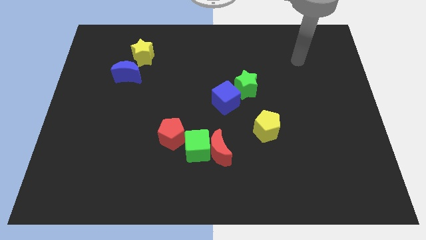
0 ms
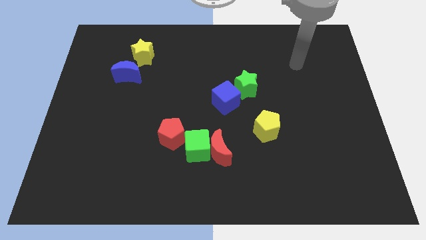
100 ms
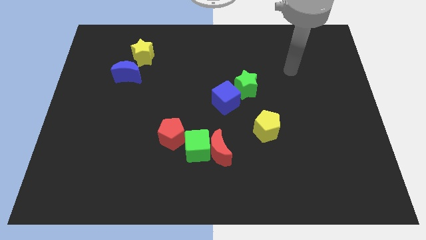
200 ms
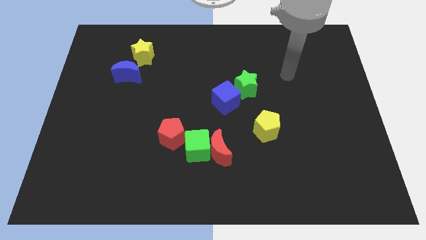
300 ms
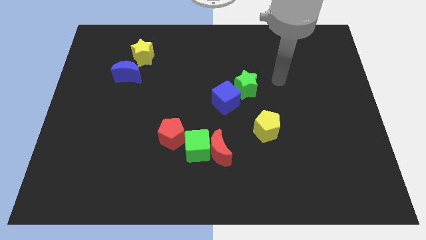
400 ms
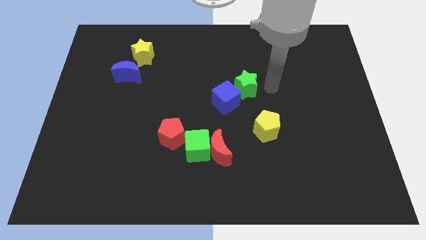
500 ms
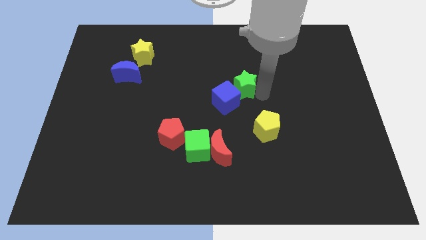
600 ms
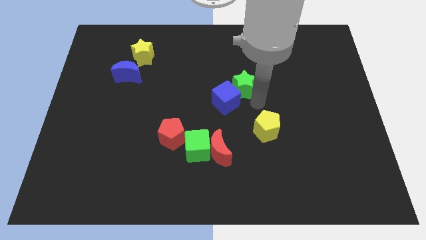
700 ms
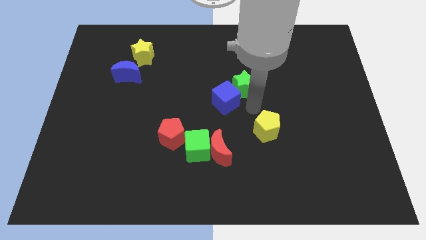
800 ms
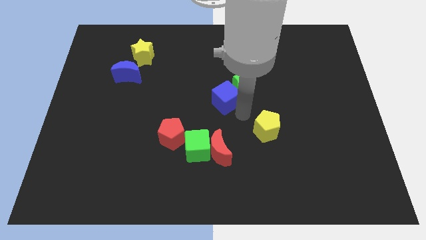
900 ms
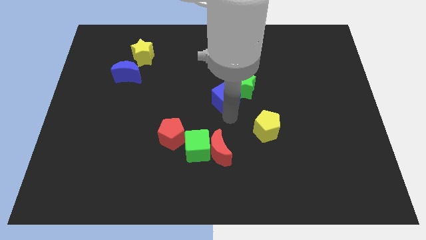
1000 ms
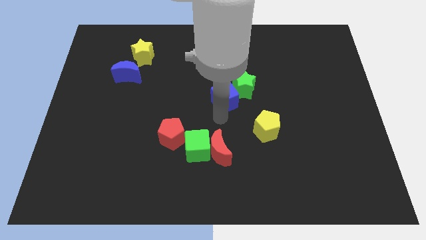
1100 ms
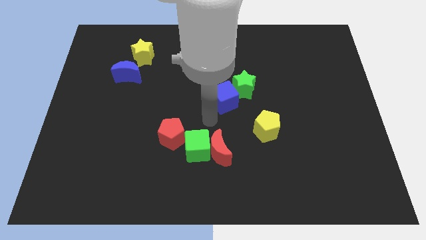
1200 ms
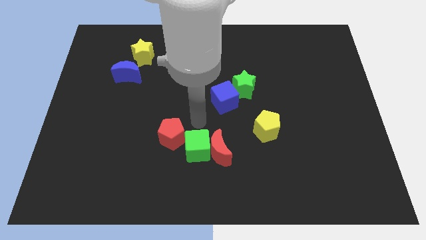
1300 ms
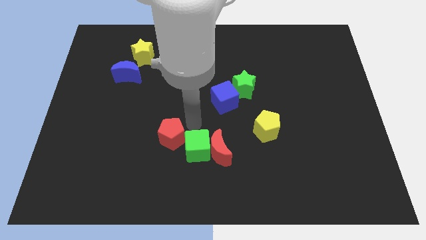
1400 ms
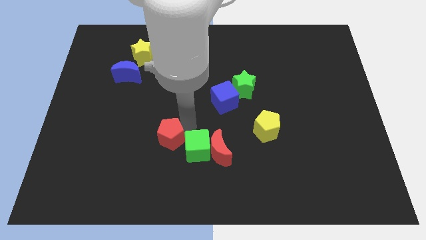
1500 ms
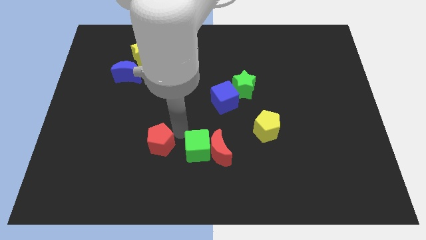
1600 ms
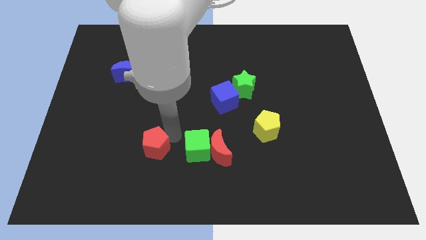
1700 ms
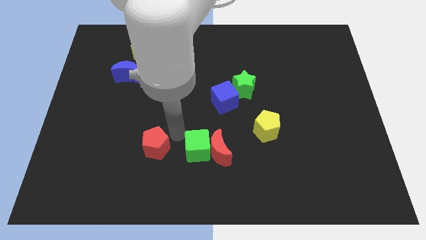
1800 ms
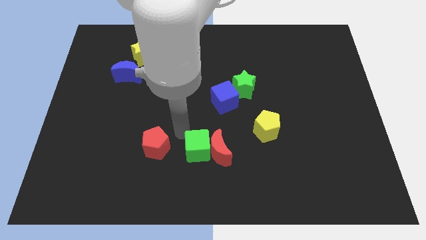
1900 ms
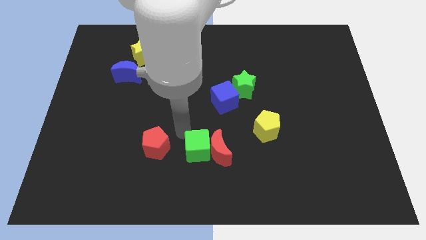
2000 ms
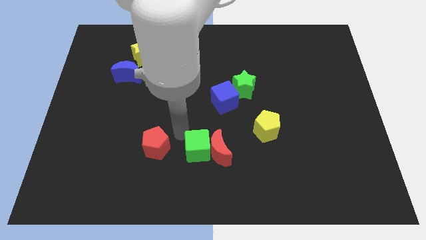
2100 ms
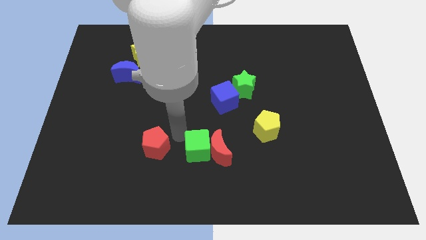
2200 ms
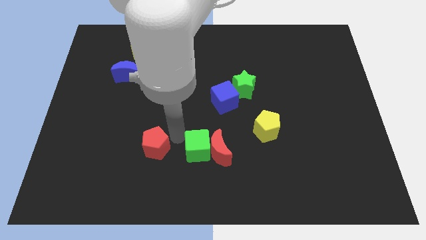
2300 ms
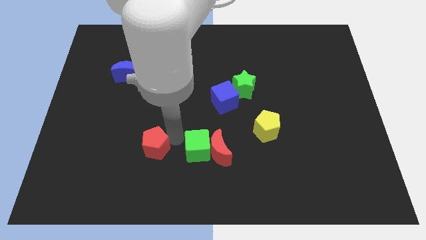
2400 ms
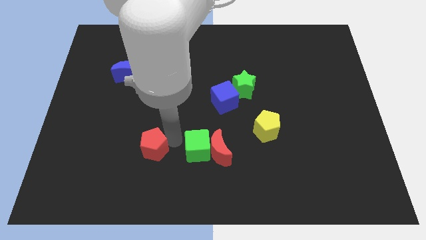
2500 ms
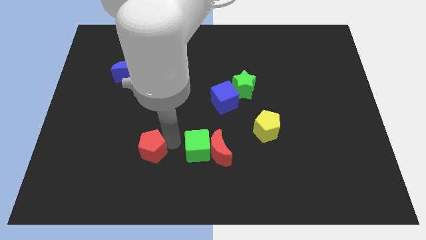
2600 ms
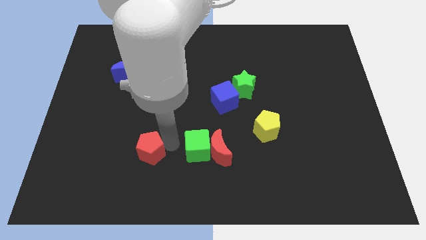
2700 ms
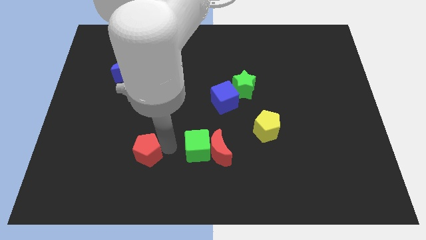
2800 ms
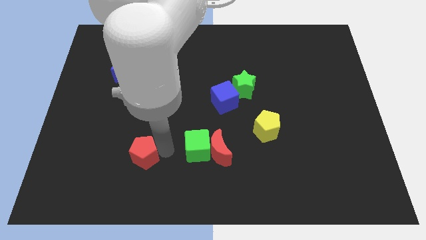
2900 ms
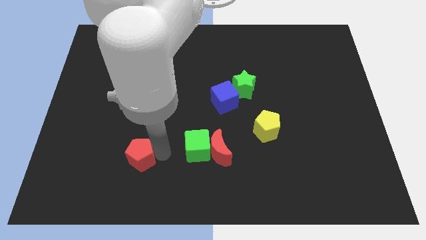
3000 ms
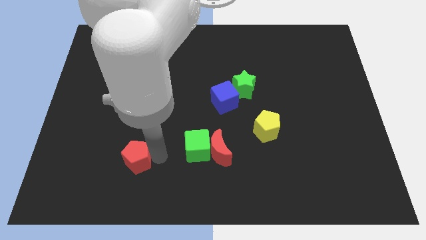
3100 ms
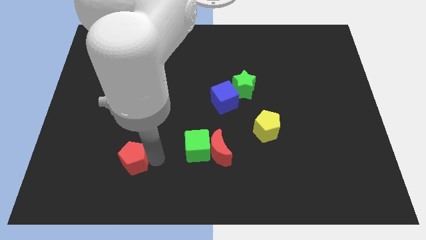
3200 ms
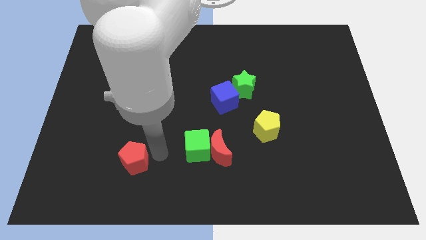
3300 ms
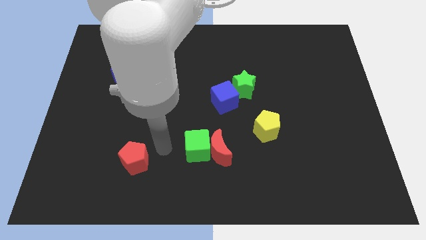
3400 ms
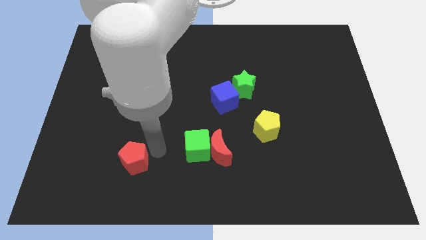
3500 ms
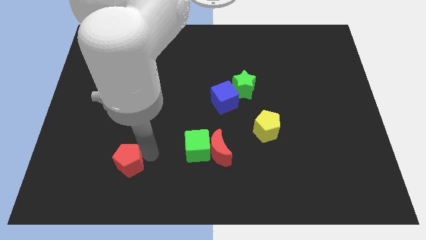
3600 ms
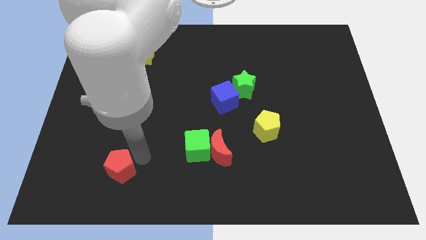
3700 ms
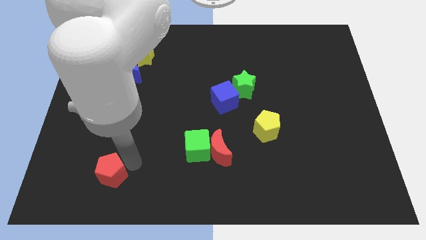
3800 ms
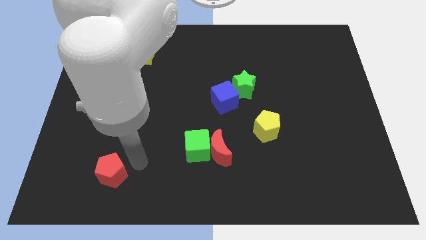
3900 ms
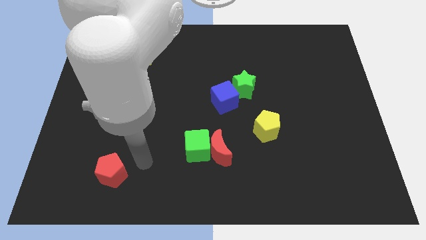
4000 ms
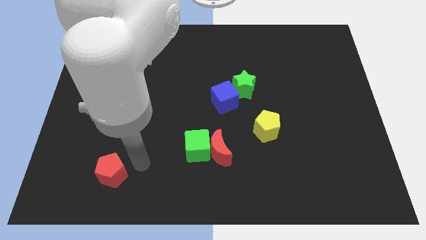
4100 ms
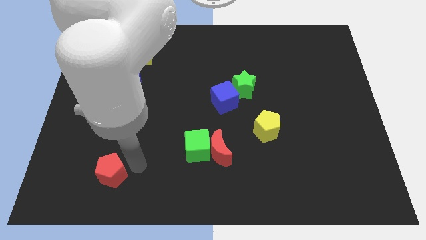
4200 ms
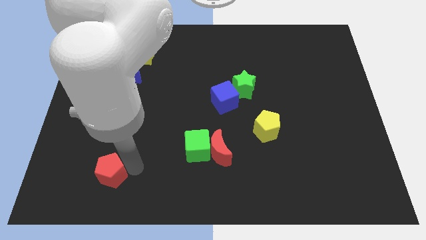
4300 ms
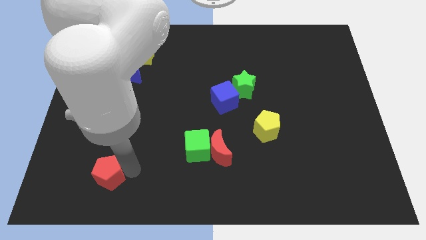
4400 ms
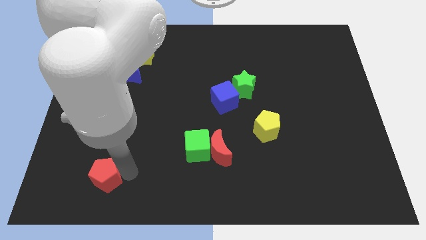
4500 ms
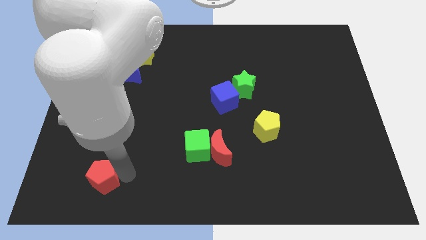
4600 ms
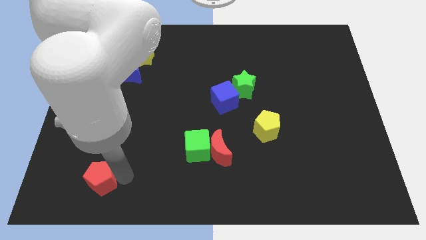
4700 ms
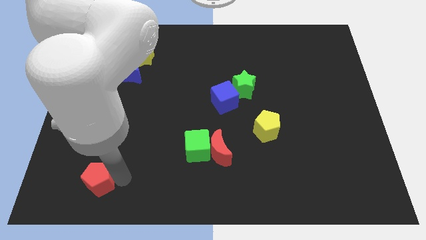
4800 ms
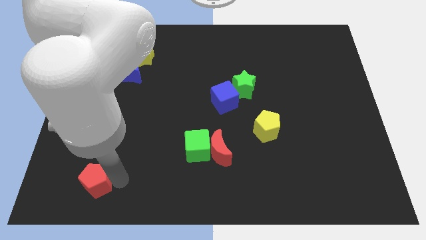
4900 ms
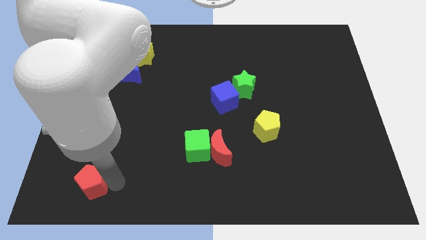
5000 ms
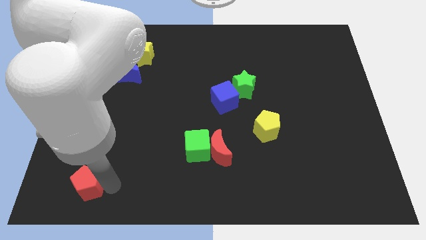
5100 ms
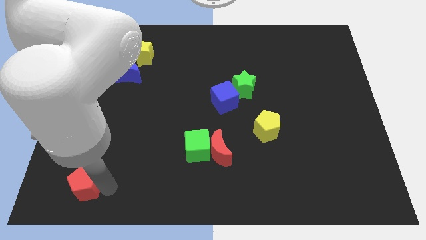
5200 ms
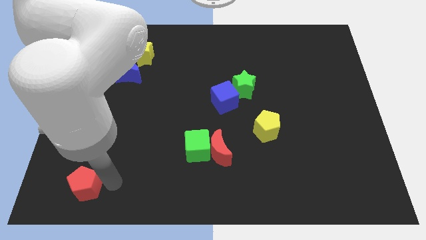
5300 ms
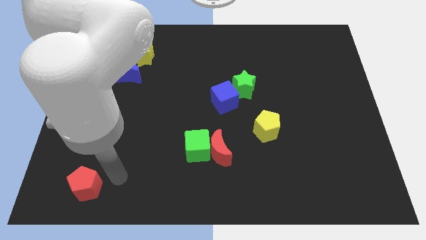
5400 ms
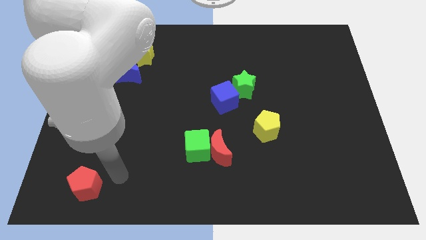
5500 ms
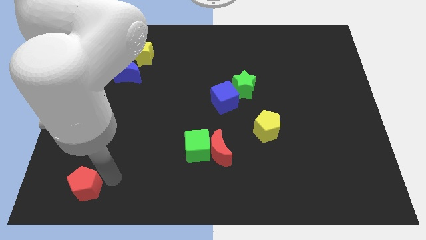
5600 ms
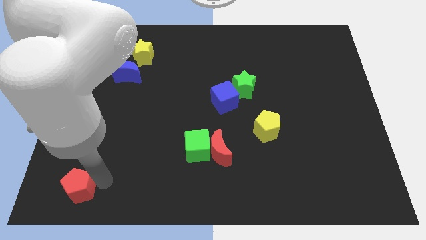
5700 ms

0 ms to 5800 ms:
slide the red pentagon to the lower left corner
